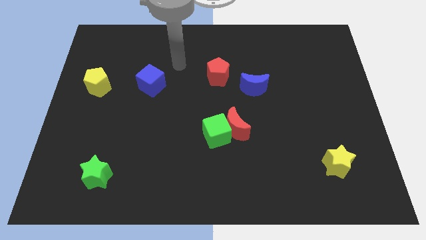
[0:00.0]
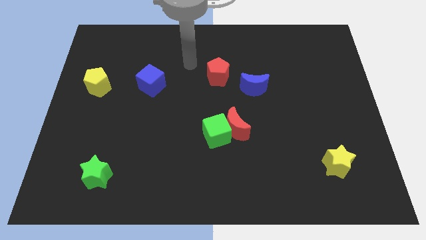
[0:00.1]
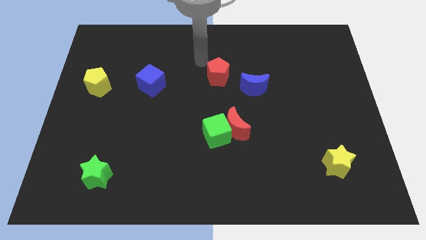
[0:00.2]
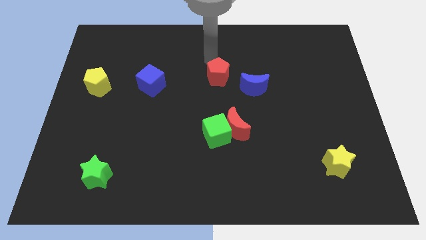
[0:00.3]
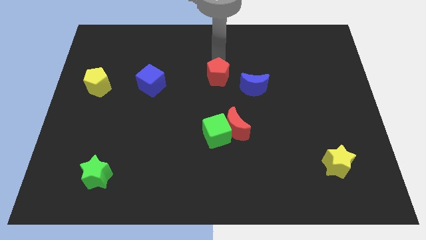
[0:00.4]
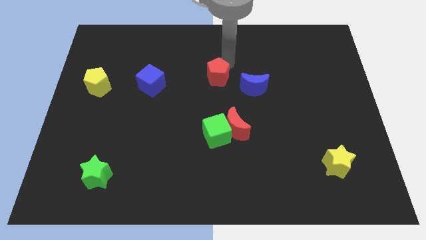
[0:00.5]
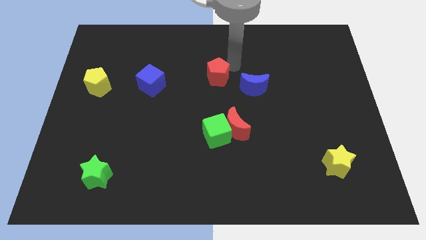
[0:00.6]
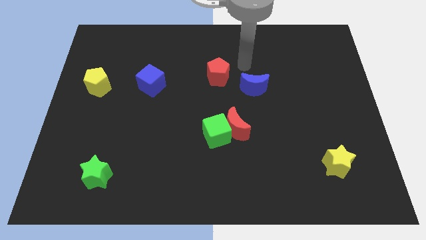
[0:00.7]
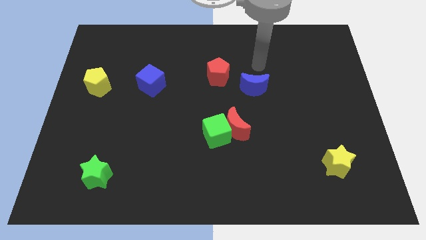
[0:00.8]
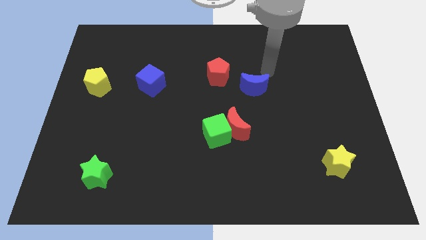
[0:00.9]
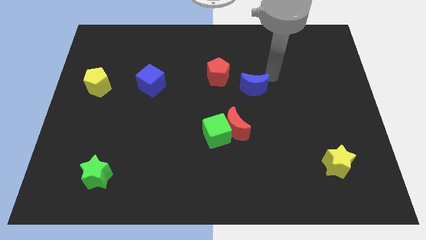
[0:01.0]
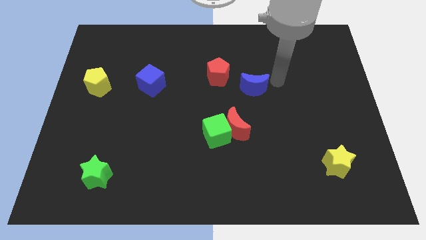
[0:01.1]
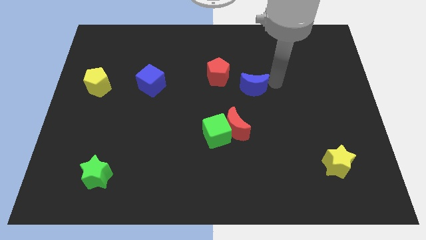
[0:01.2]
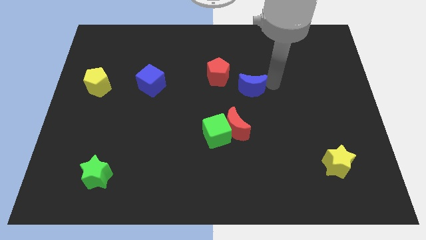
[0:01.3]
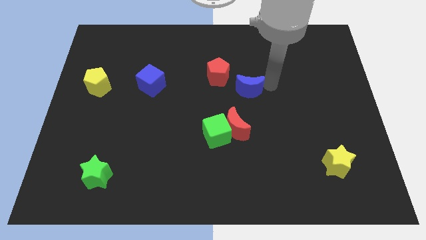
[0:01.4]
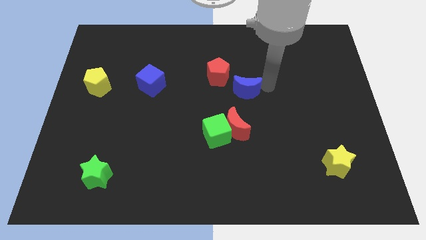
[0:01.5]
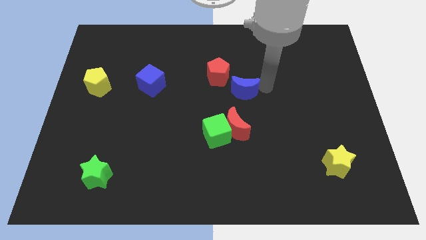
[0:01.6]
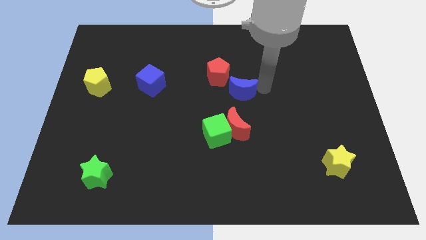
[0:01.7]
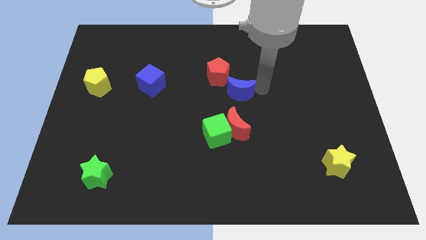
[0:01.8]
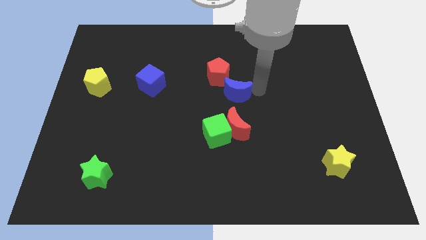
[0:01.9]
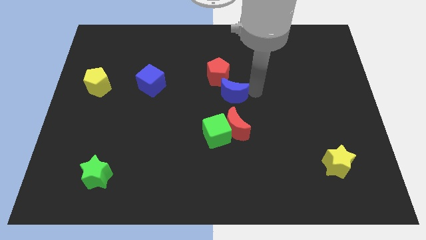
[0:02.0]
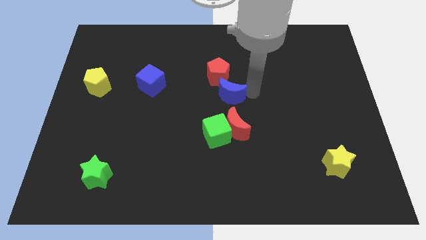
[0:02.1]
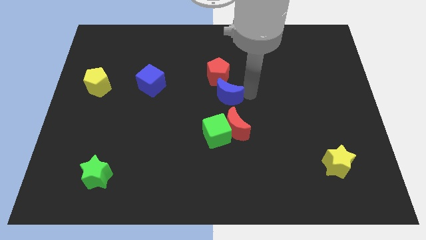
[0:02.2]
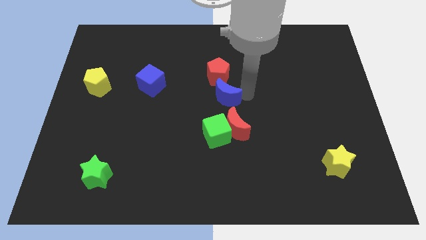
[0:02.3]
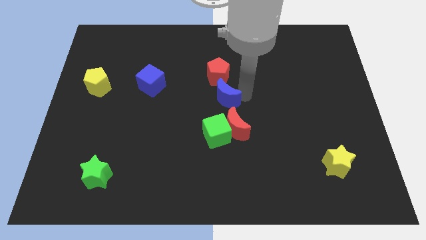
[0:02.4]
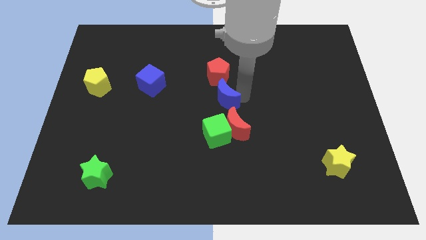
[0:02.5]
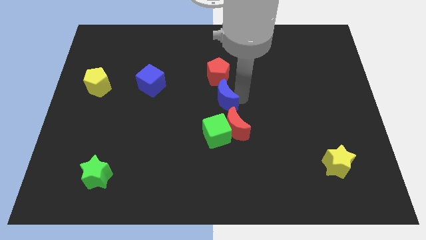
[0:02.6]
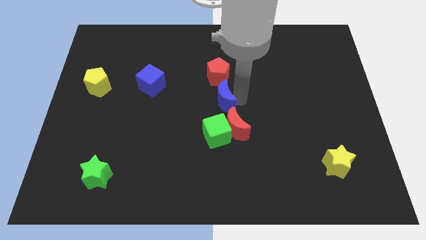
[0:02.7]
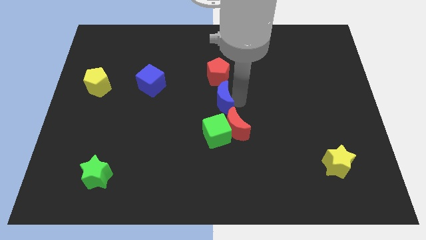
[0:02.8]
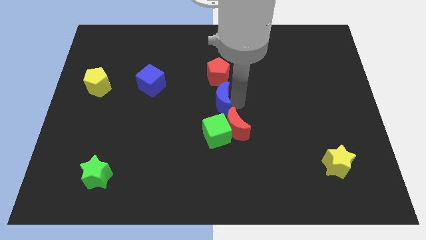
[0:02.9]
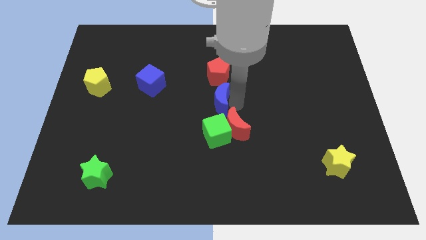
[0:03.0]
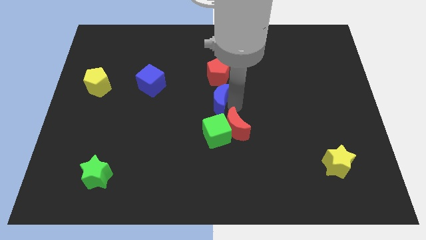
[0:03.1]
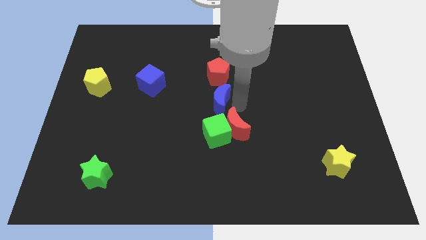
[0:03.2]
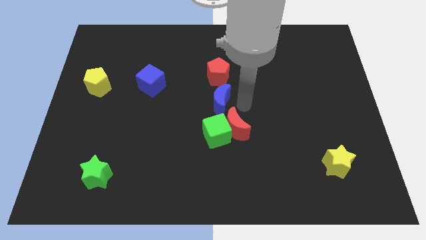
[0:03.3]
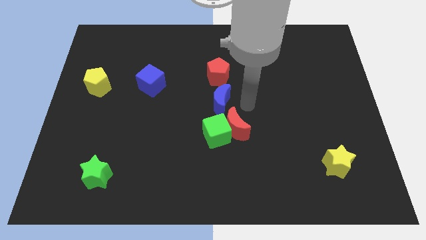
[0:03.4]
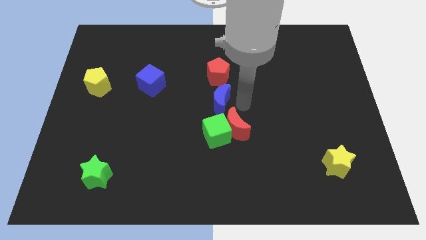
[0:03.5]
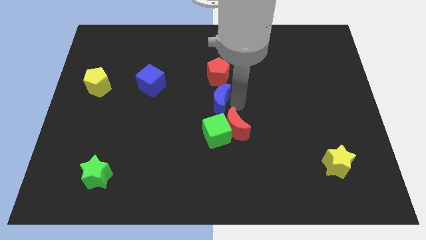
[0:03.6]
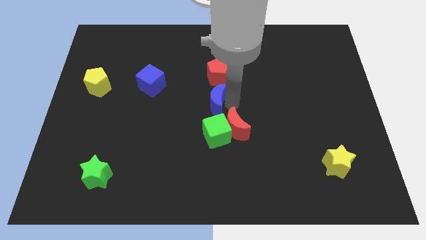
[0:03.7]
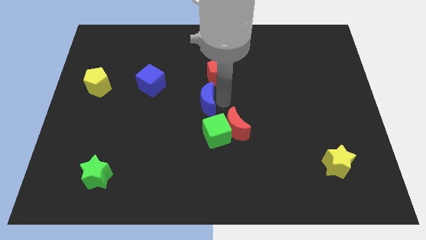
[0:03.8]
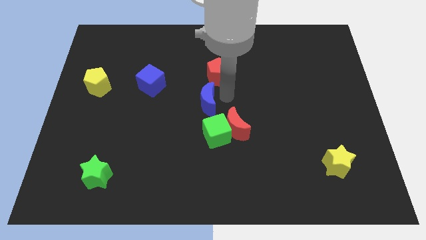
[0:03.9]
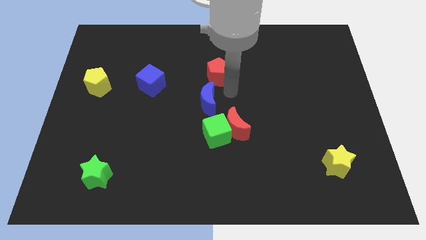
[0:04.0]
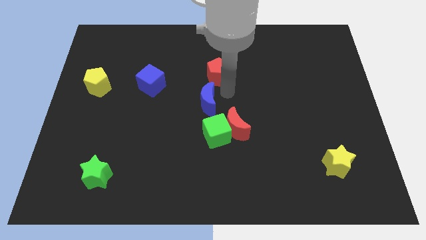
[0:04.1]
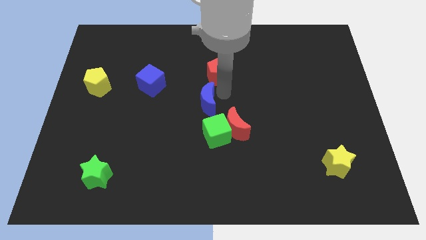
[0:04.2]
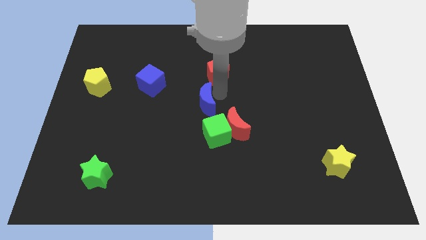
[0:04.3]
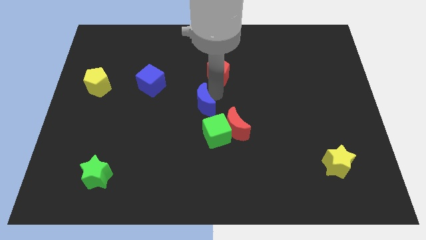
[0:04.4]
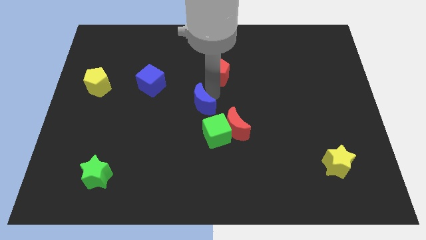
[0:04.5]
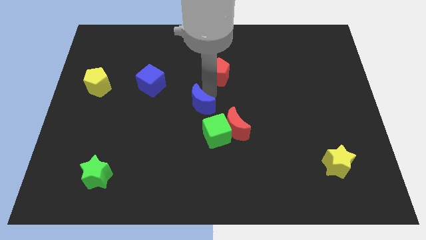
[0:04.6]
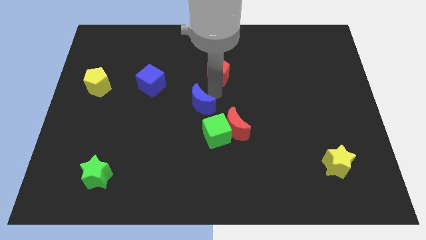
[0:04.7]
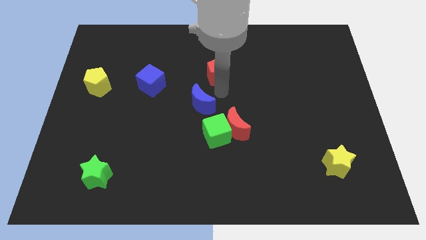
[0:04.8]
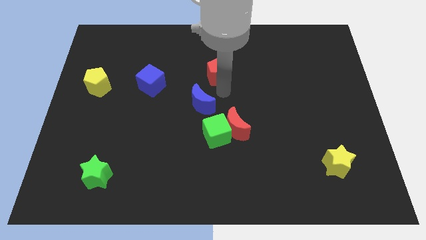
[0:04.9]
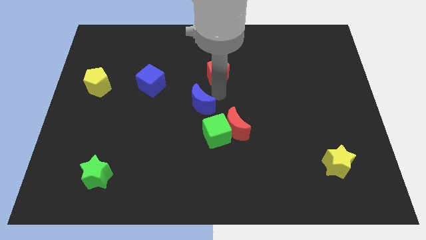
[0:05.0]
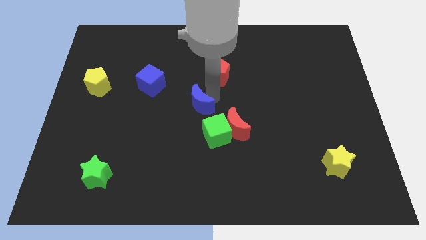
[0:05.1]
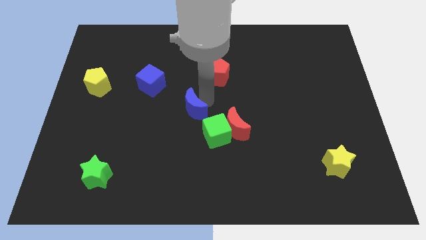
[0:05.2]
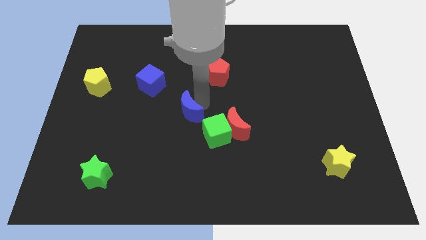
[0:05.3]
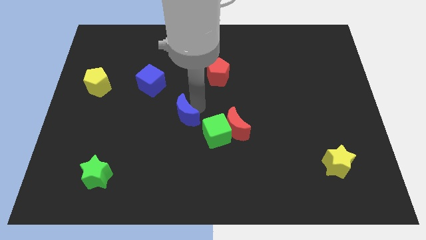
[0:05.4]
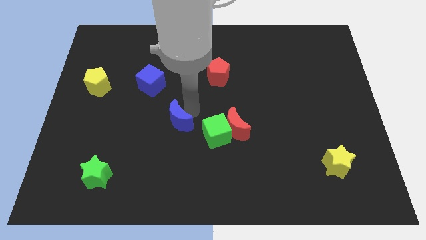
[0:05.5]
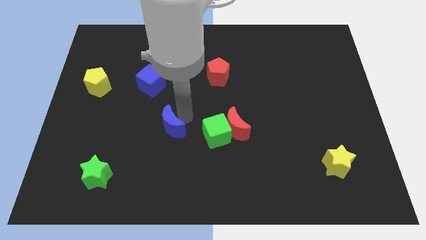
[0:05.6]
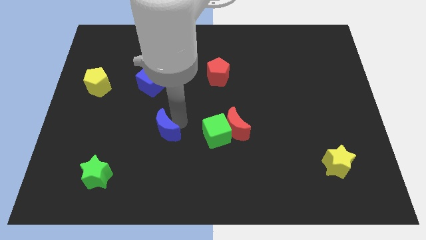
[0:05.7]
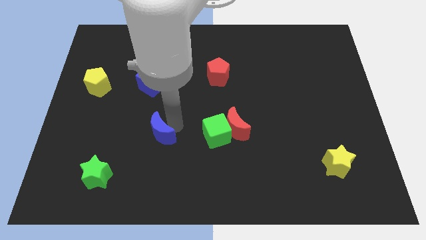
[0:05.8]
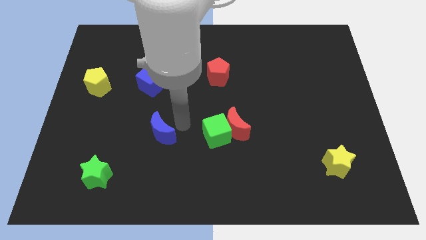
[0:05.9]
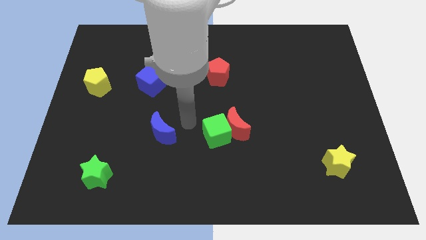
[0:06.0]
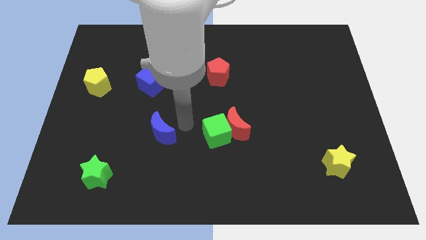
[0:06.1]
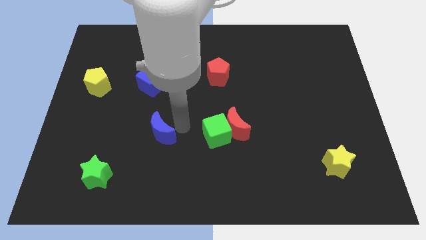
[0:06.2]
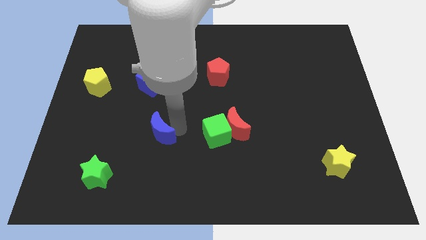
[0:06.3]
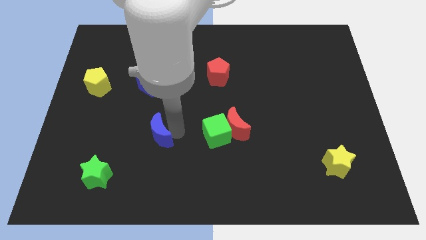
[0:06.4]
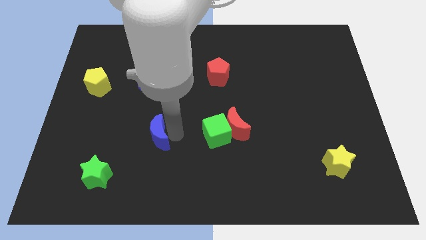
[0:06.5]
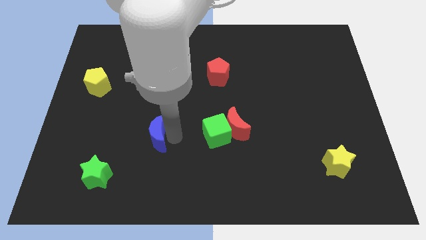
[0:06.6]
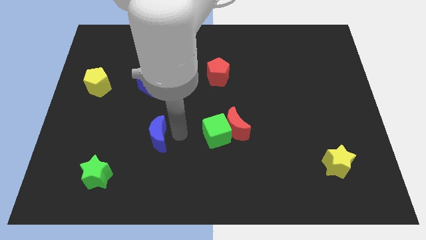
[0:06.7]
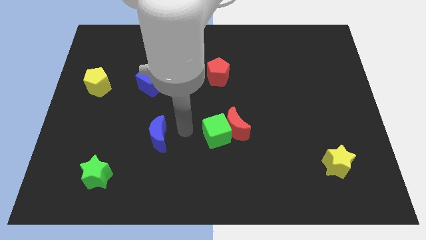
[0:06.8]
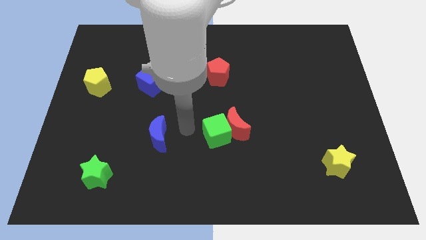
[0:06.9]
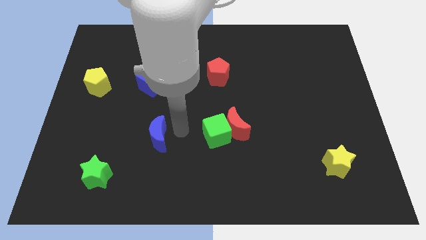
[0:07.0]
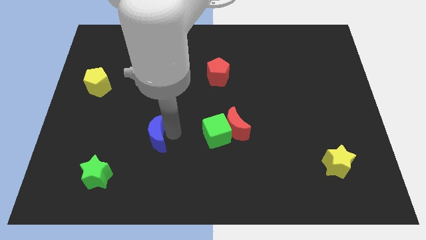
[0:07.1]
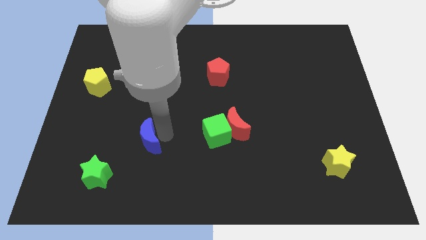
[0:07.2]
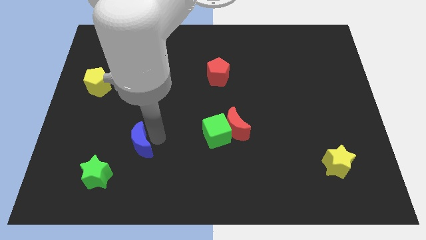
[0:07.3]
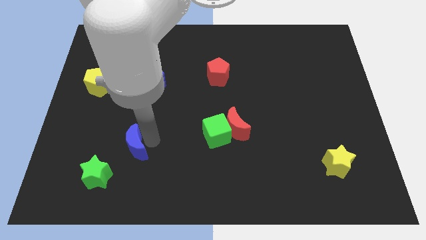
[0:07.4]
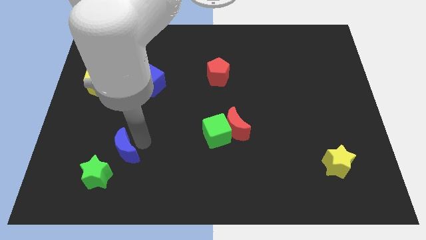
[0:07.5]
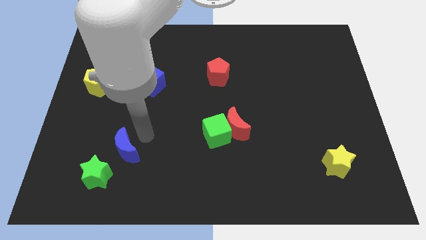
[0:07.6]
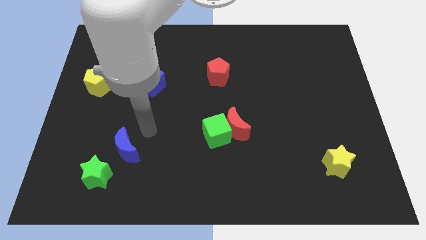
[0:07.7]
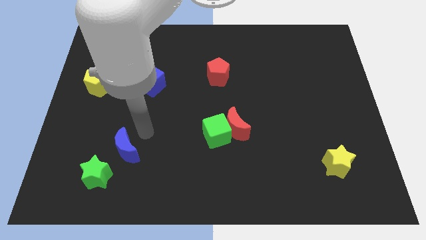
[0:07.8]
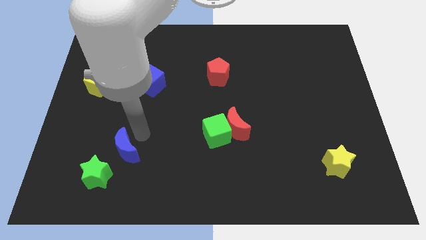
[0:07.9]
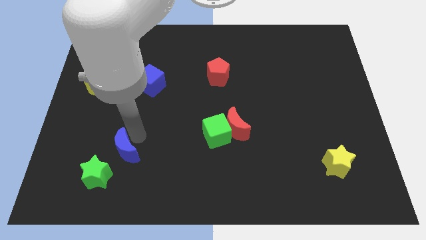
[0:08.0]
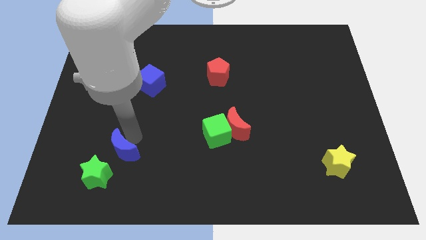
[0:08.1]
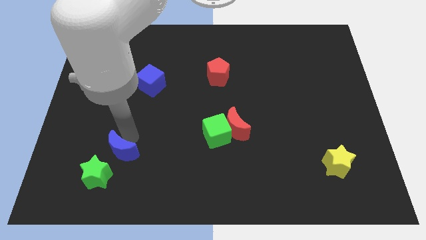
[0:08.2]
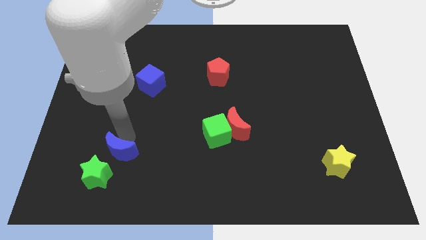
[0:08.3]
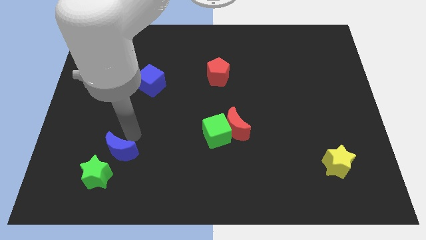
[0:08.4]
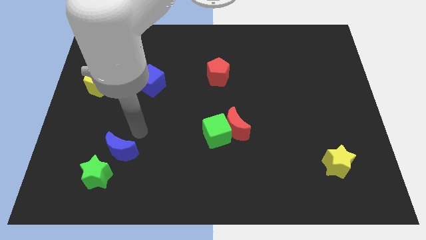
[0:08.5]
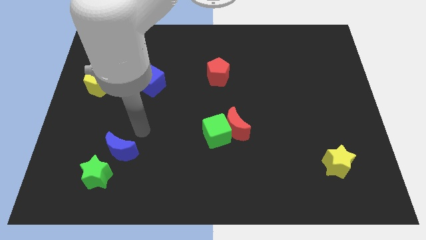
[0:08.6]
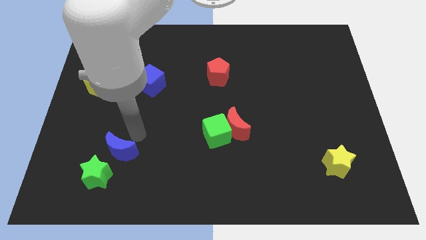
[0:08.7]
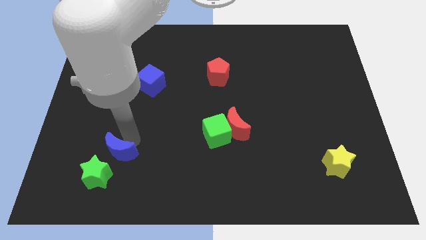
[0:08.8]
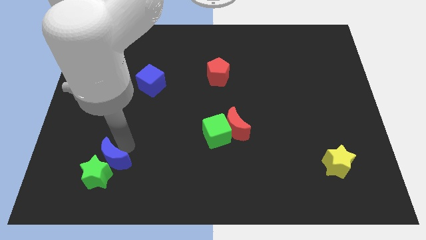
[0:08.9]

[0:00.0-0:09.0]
move the blue moon next to the green star
